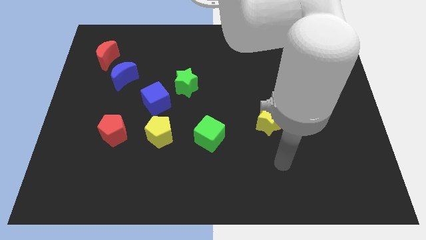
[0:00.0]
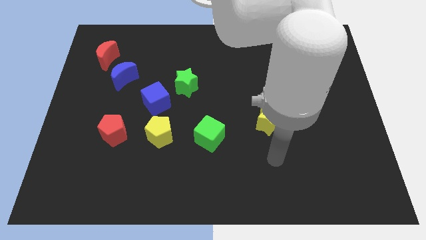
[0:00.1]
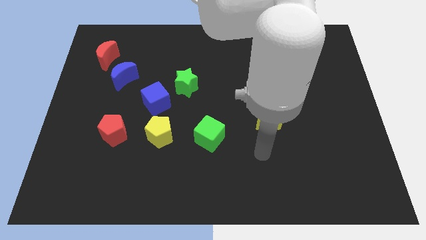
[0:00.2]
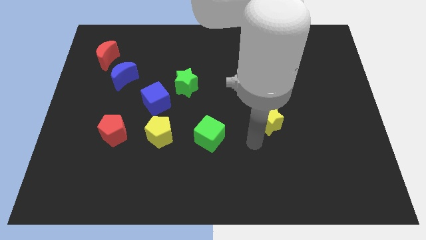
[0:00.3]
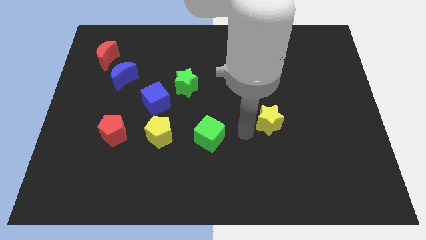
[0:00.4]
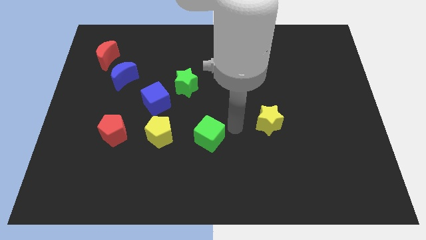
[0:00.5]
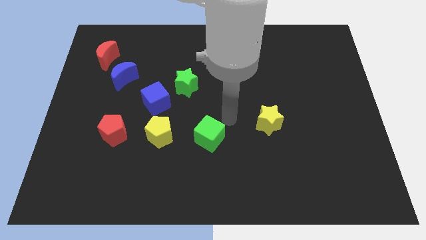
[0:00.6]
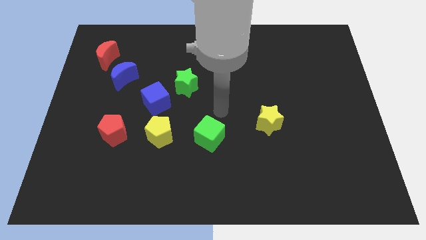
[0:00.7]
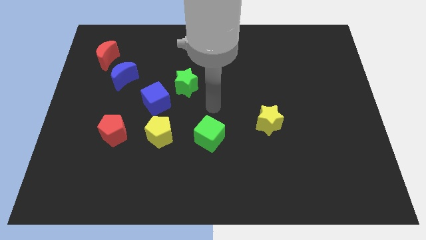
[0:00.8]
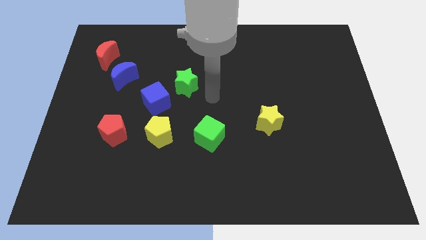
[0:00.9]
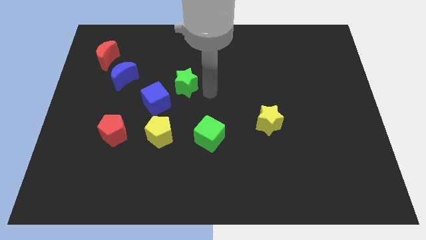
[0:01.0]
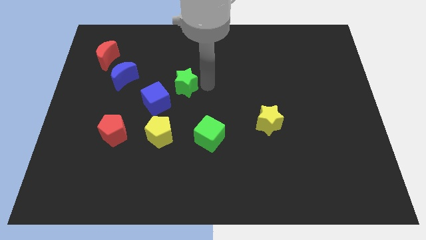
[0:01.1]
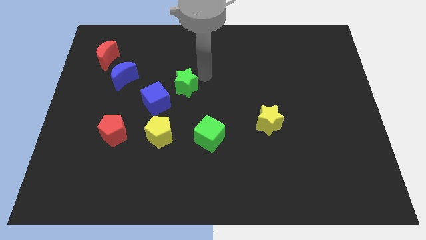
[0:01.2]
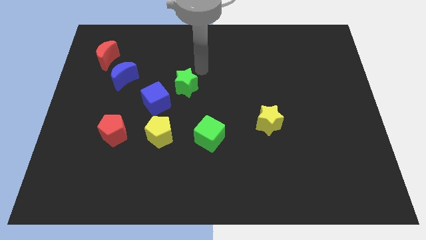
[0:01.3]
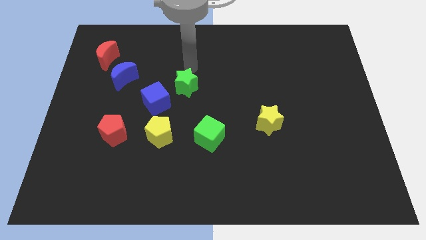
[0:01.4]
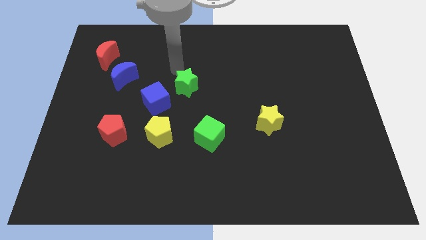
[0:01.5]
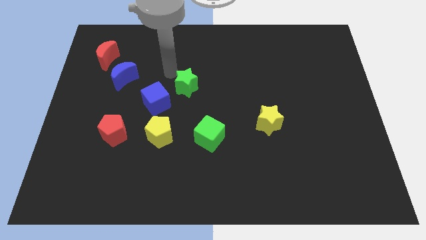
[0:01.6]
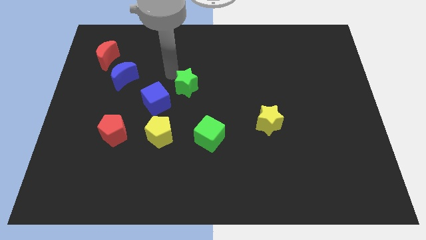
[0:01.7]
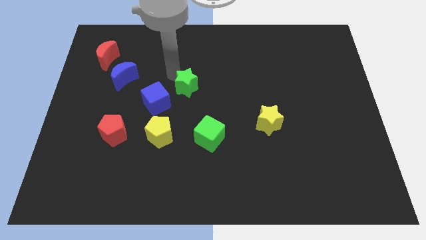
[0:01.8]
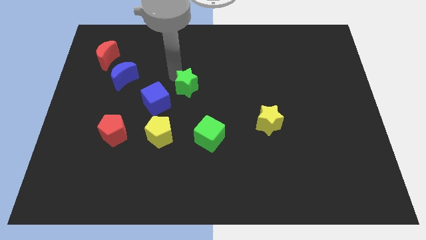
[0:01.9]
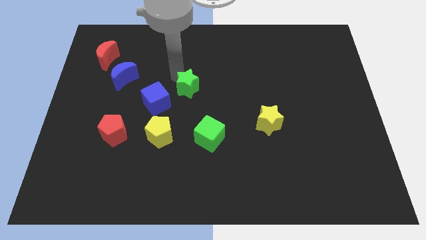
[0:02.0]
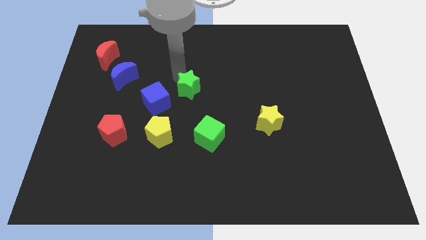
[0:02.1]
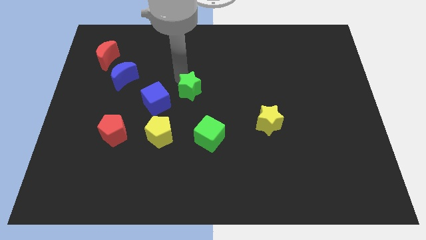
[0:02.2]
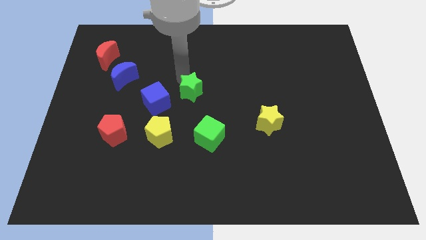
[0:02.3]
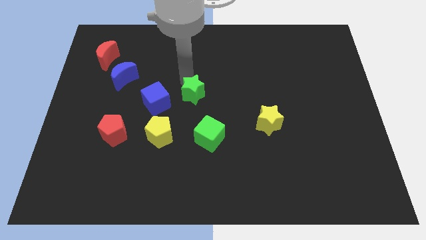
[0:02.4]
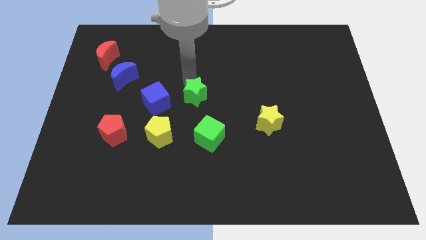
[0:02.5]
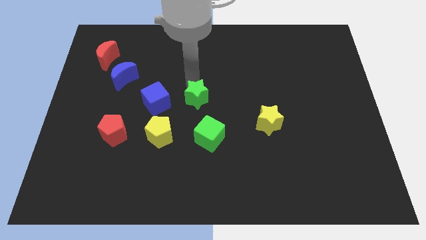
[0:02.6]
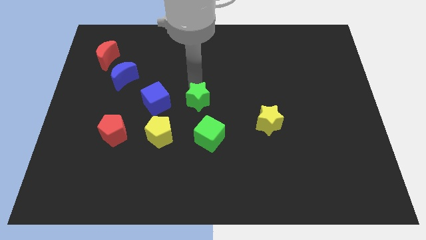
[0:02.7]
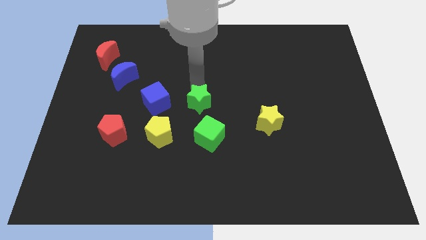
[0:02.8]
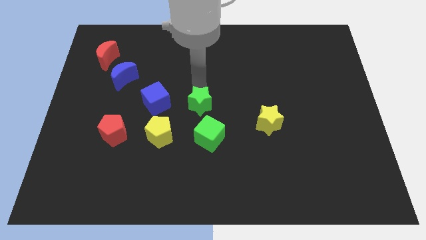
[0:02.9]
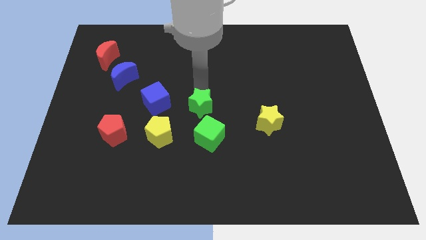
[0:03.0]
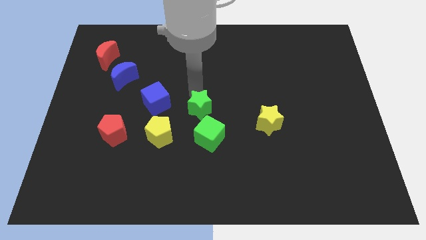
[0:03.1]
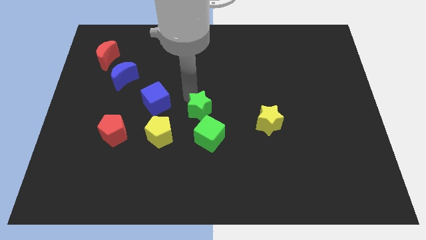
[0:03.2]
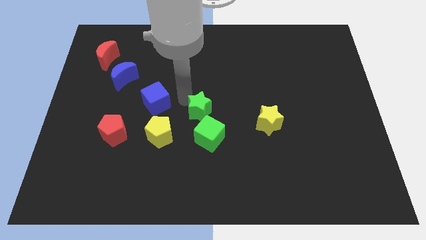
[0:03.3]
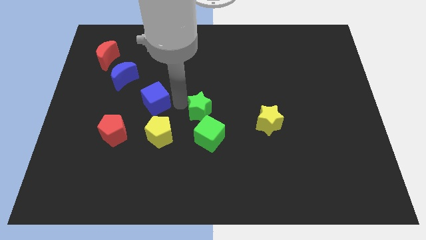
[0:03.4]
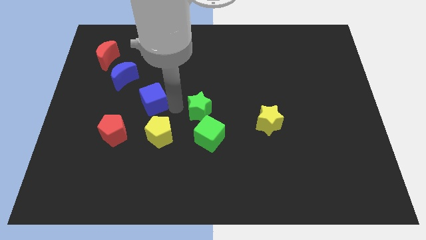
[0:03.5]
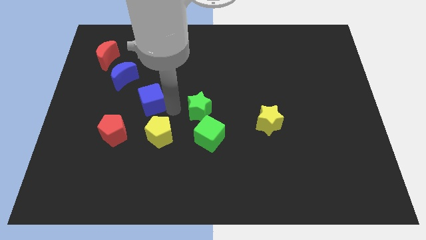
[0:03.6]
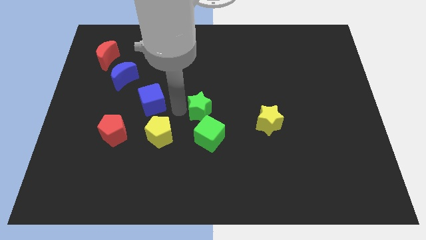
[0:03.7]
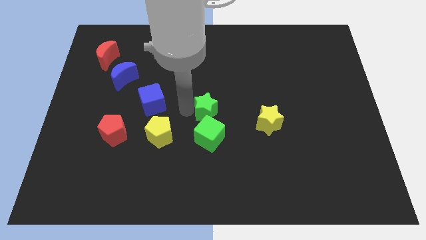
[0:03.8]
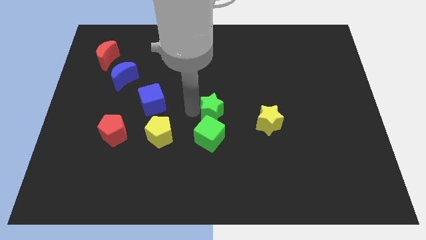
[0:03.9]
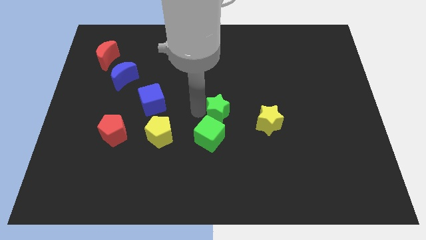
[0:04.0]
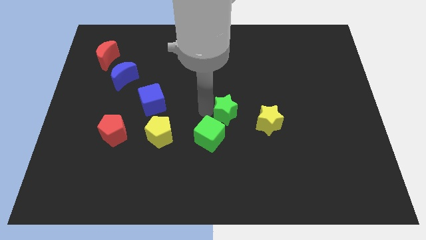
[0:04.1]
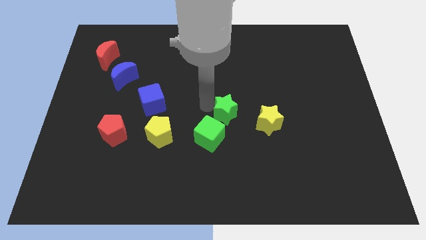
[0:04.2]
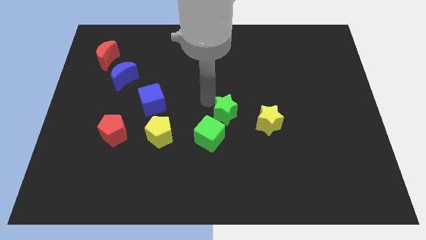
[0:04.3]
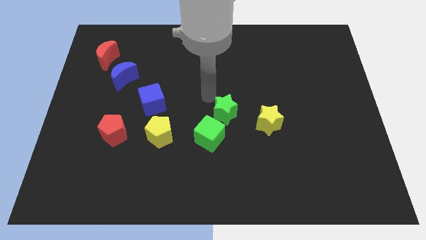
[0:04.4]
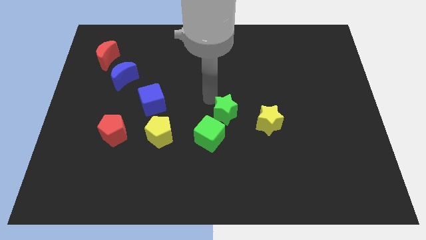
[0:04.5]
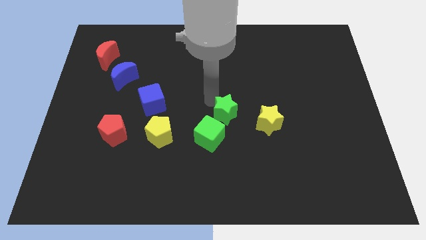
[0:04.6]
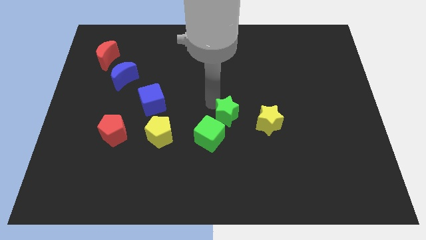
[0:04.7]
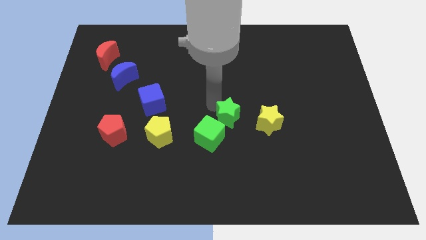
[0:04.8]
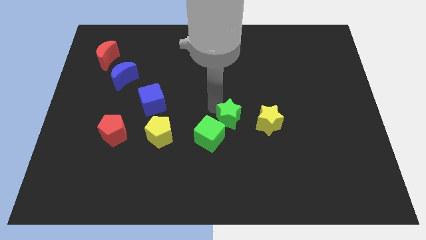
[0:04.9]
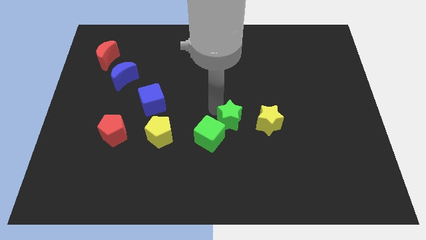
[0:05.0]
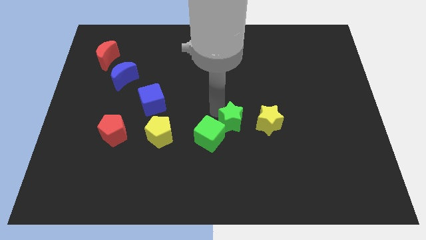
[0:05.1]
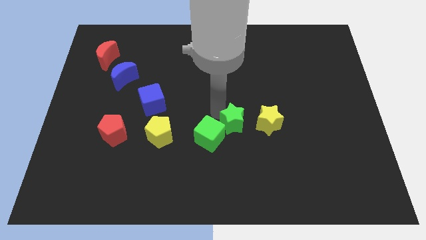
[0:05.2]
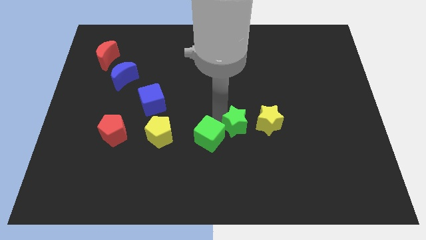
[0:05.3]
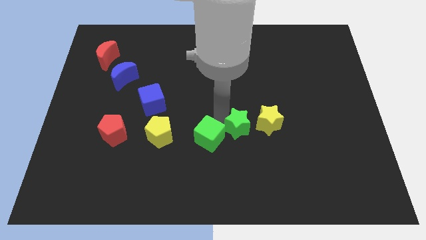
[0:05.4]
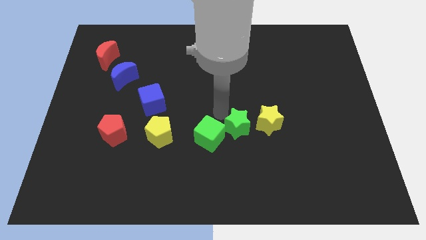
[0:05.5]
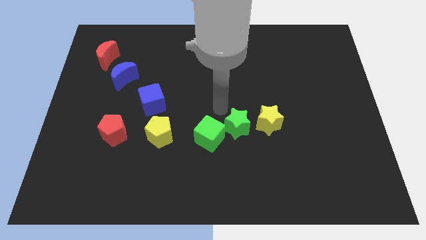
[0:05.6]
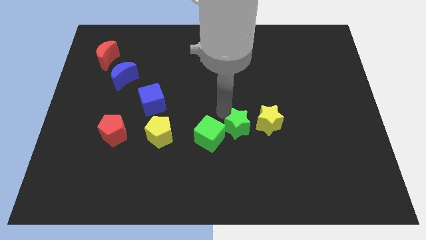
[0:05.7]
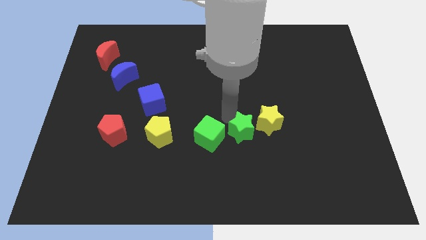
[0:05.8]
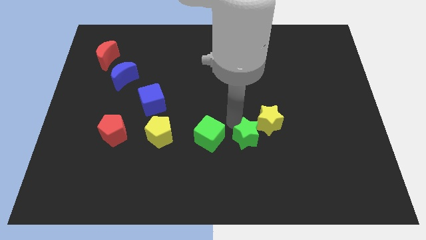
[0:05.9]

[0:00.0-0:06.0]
slide the green star down and right diagonally

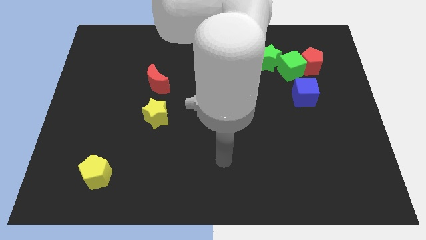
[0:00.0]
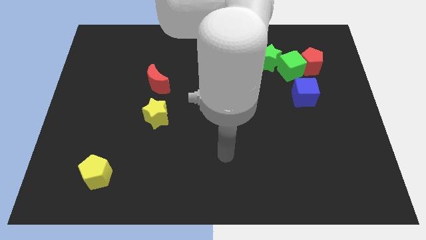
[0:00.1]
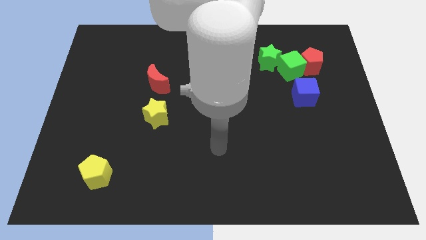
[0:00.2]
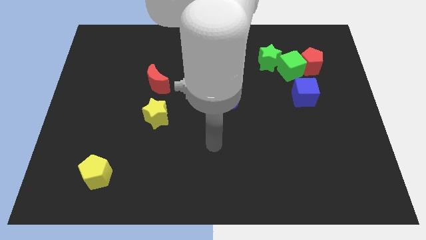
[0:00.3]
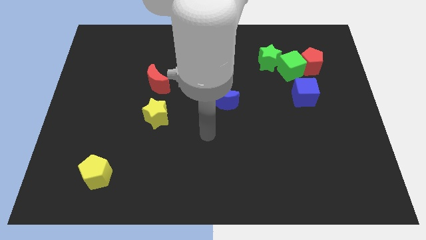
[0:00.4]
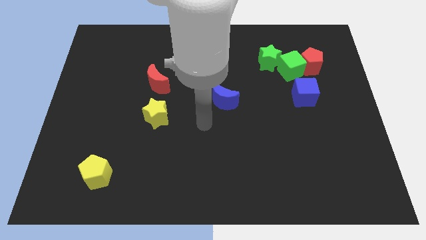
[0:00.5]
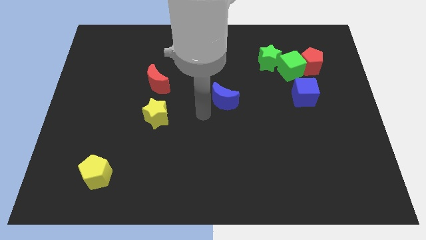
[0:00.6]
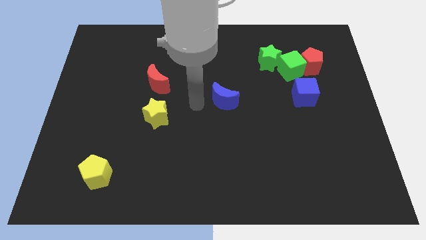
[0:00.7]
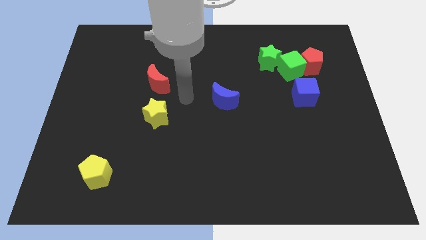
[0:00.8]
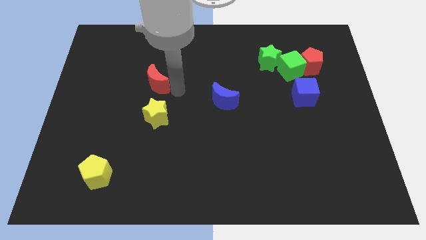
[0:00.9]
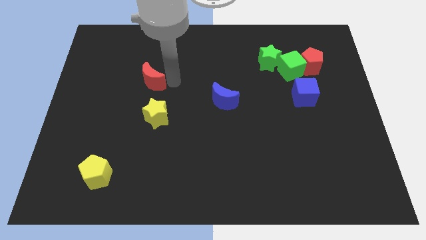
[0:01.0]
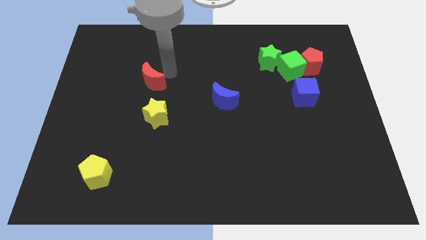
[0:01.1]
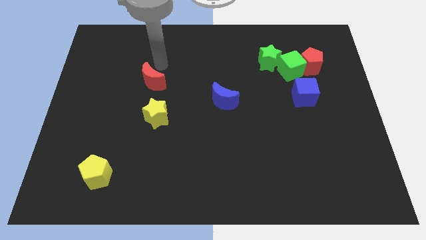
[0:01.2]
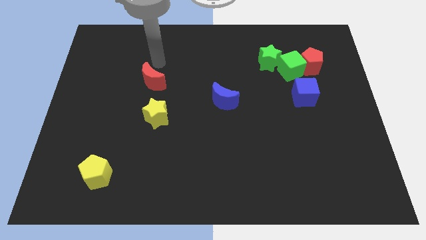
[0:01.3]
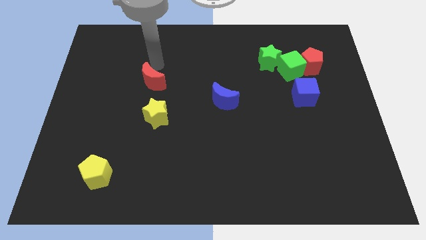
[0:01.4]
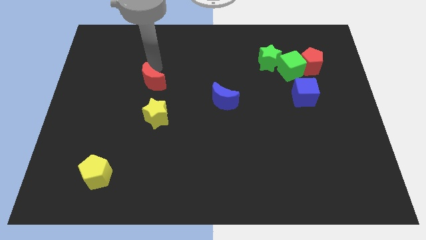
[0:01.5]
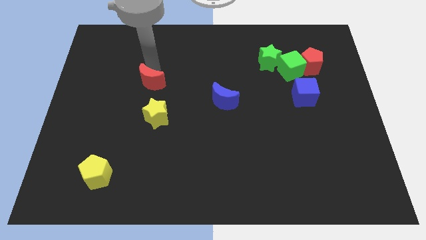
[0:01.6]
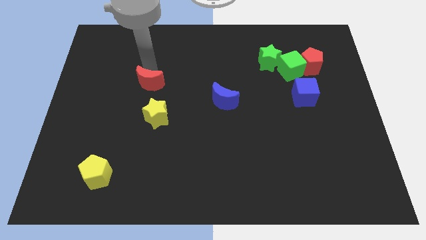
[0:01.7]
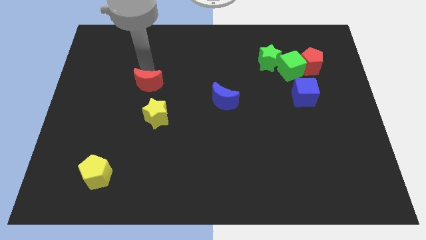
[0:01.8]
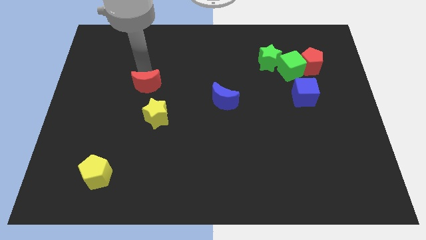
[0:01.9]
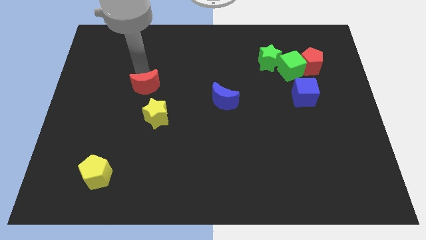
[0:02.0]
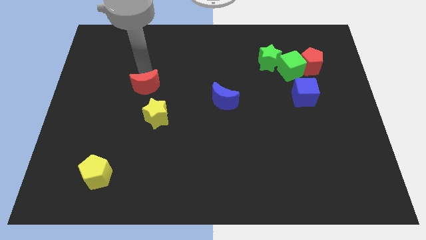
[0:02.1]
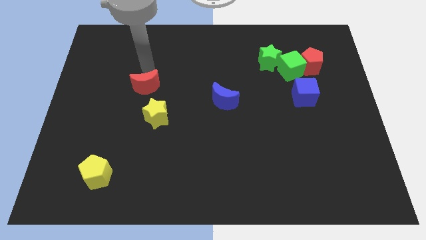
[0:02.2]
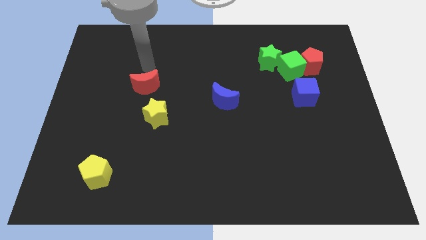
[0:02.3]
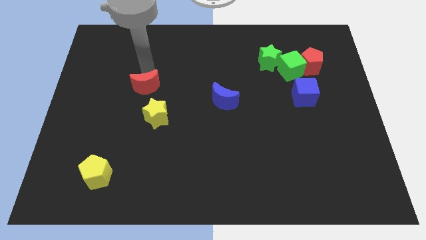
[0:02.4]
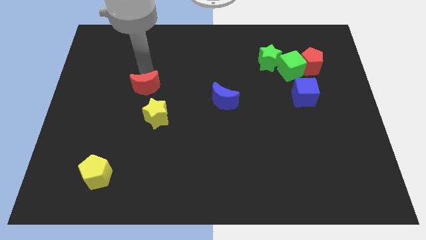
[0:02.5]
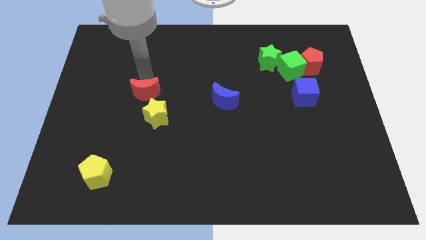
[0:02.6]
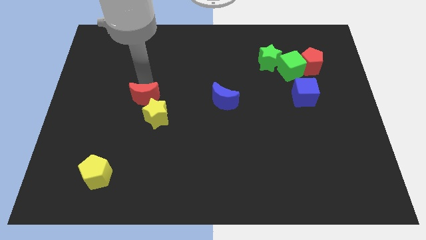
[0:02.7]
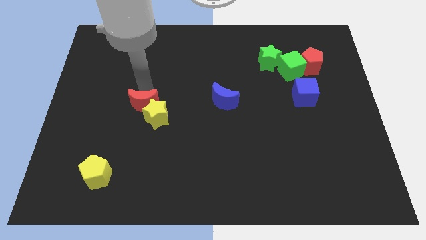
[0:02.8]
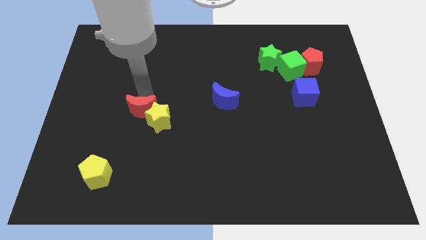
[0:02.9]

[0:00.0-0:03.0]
move the red moon a bit downwards
